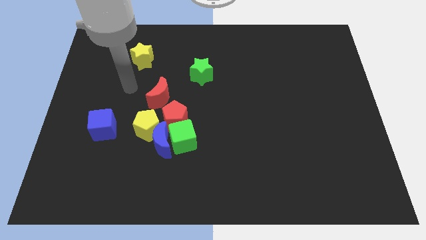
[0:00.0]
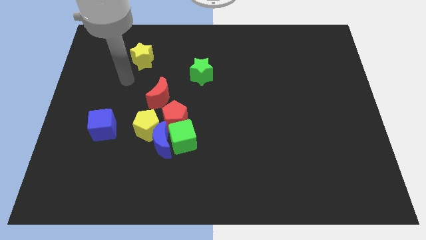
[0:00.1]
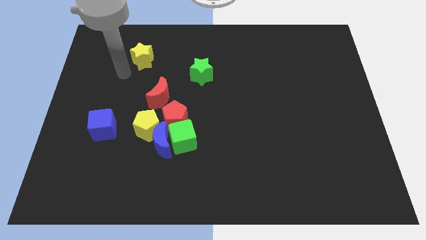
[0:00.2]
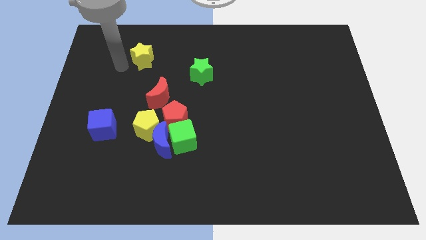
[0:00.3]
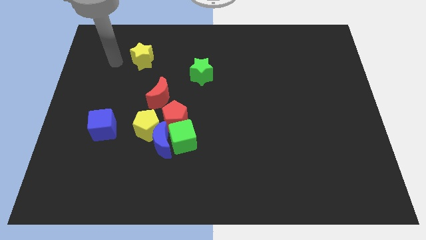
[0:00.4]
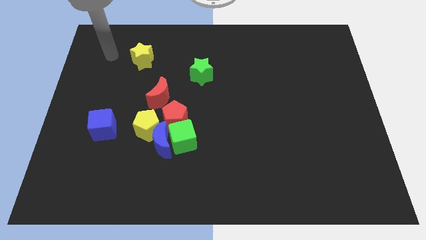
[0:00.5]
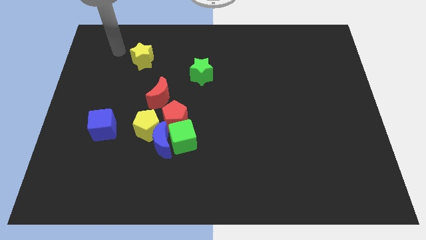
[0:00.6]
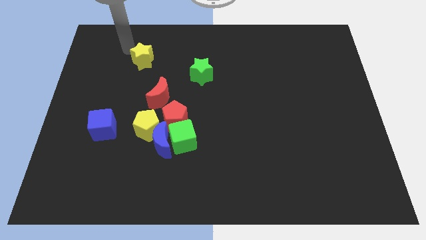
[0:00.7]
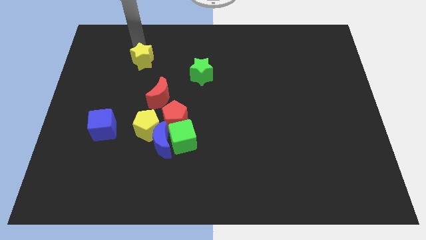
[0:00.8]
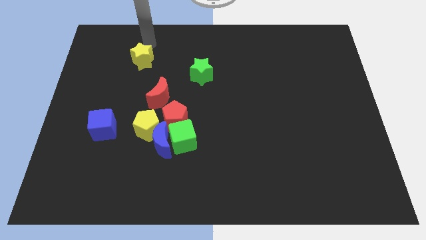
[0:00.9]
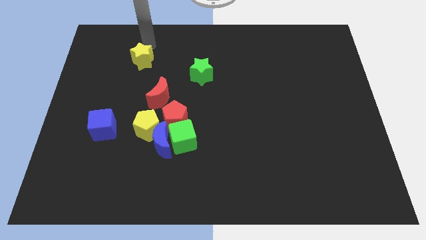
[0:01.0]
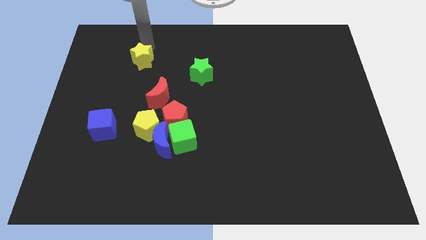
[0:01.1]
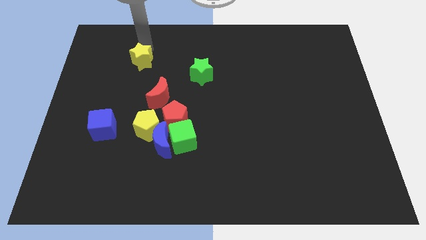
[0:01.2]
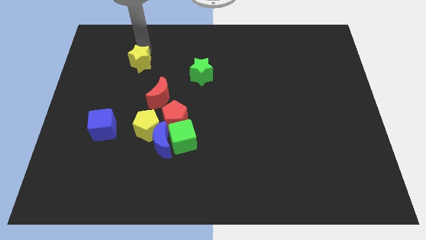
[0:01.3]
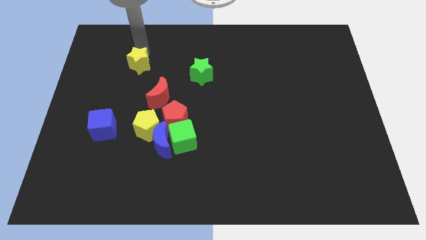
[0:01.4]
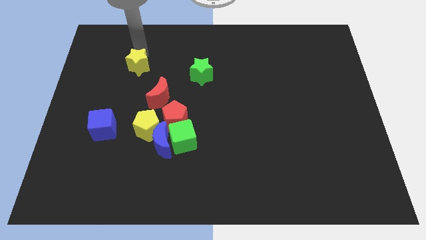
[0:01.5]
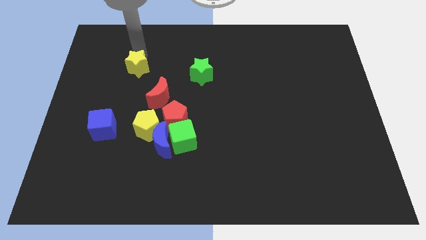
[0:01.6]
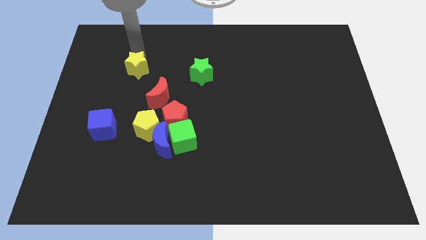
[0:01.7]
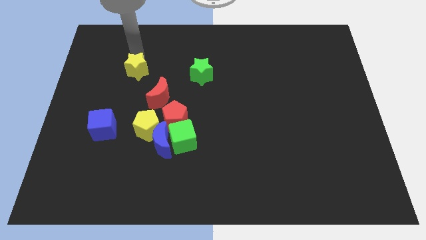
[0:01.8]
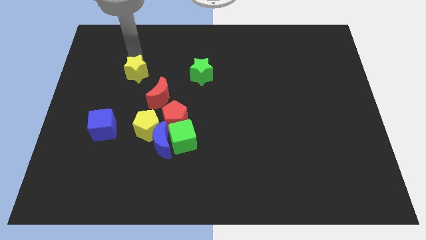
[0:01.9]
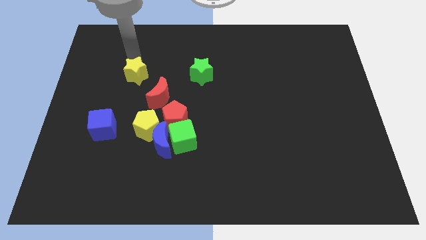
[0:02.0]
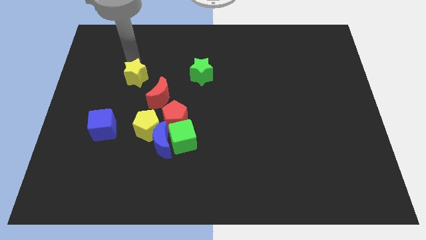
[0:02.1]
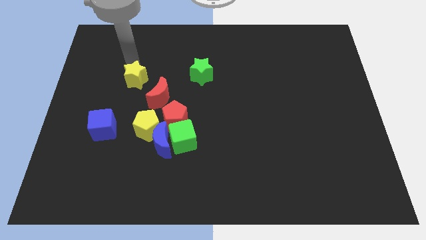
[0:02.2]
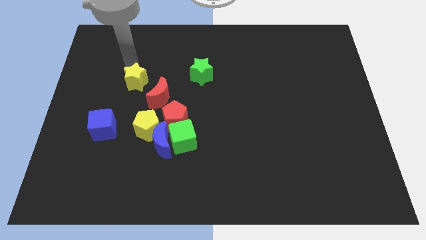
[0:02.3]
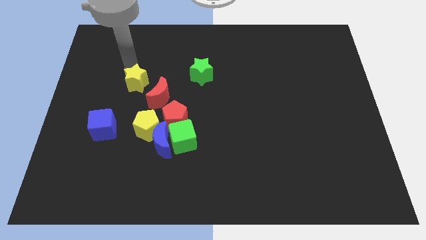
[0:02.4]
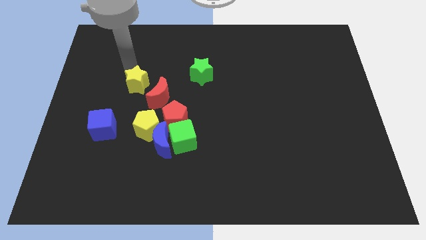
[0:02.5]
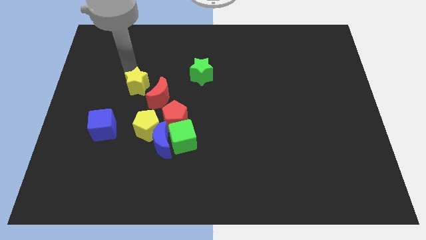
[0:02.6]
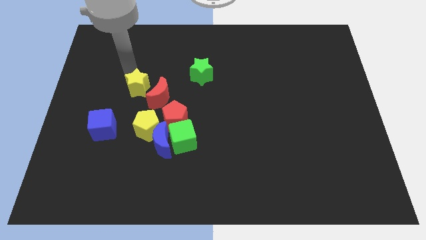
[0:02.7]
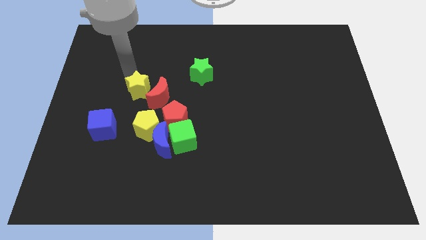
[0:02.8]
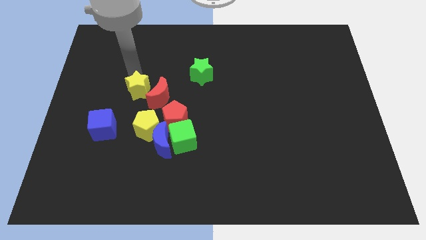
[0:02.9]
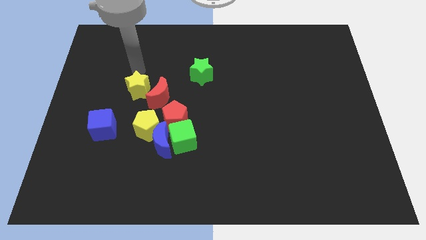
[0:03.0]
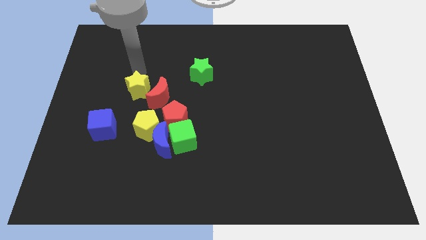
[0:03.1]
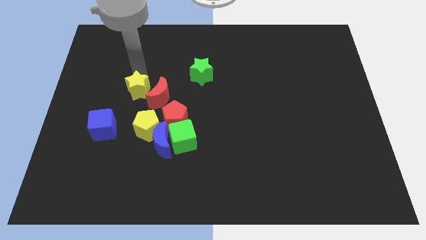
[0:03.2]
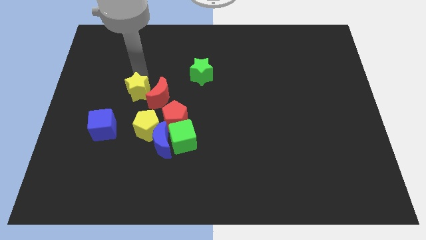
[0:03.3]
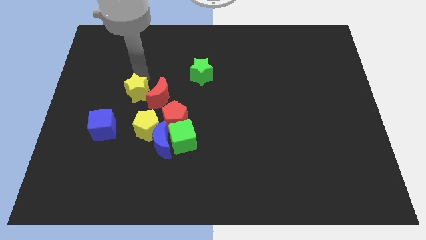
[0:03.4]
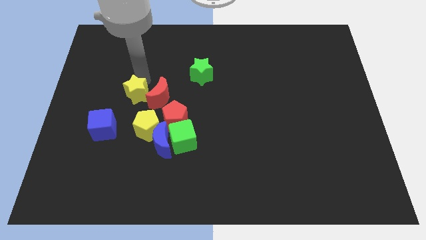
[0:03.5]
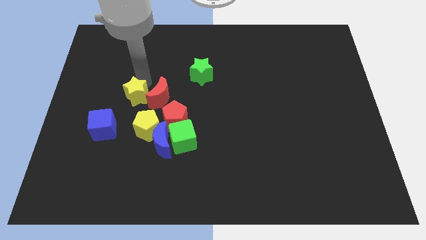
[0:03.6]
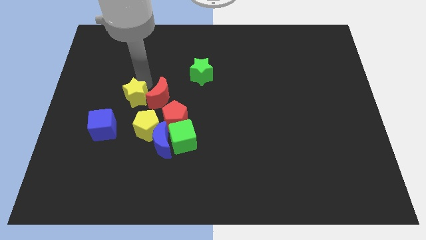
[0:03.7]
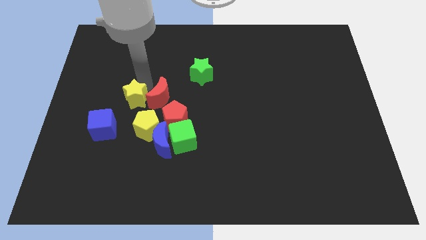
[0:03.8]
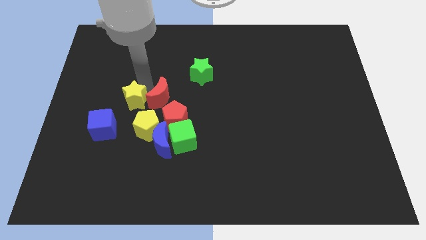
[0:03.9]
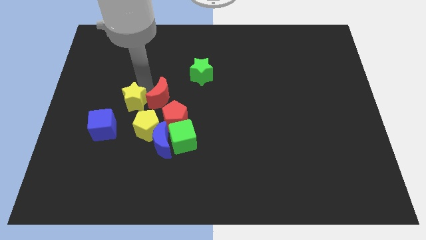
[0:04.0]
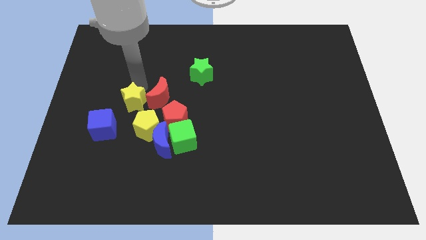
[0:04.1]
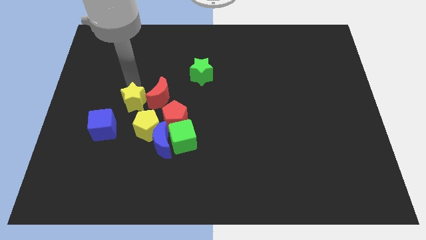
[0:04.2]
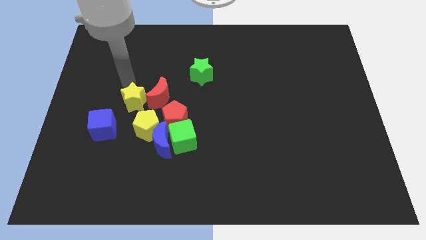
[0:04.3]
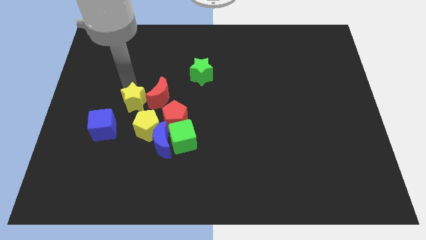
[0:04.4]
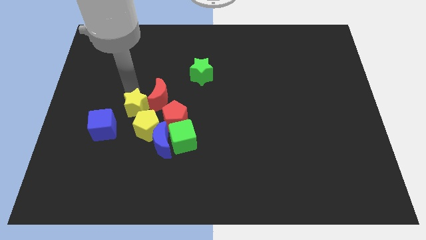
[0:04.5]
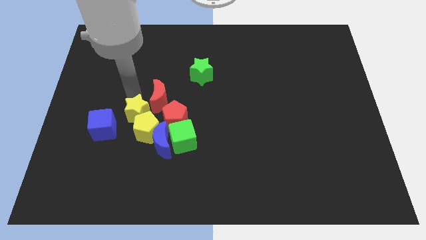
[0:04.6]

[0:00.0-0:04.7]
put the yellow star to the yellow pentagon

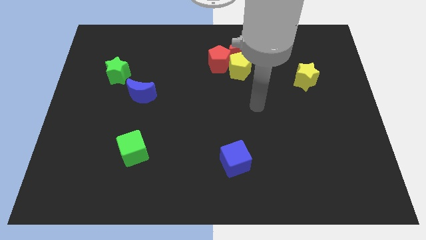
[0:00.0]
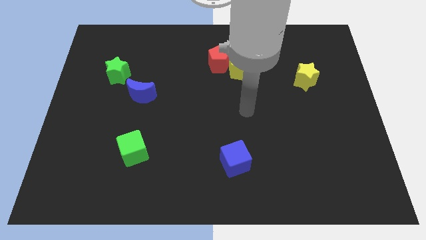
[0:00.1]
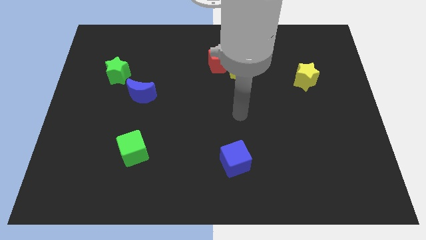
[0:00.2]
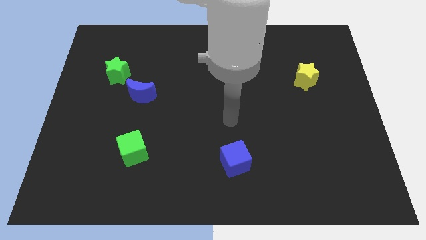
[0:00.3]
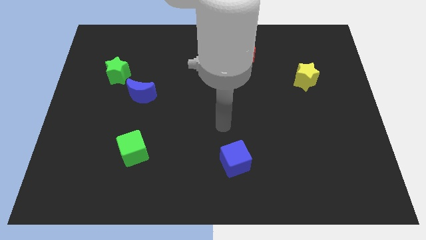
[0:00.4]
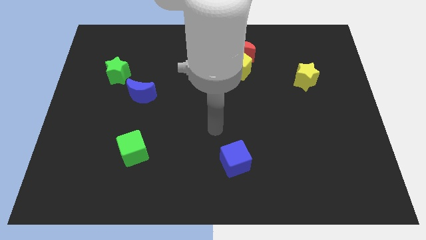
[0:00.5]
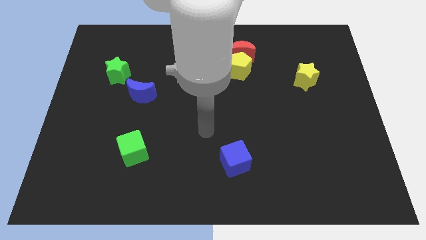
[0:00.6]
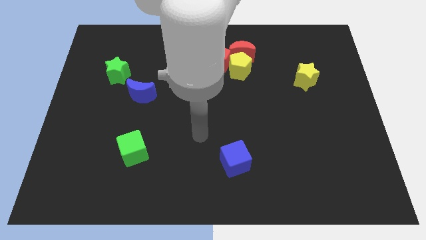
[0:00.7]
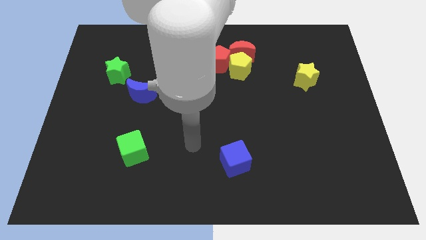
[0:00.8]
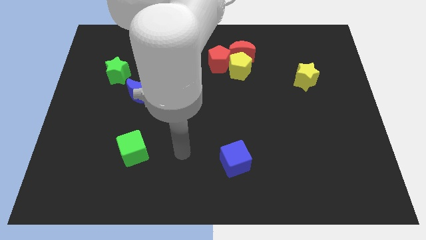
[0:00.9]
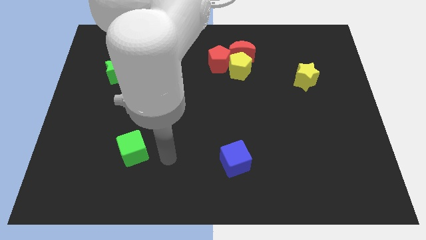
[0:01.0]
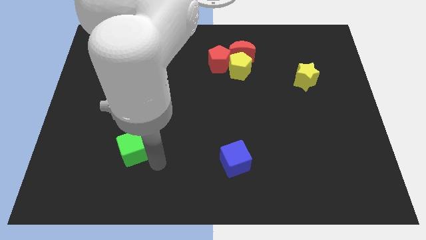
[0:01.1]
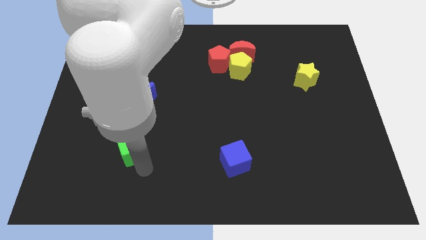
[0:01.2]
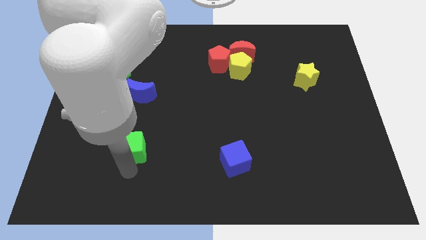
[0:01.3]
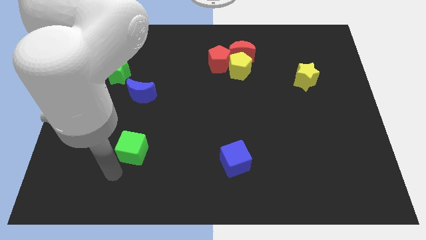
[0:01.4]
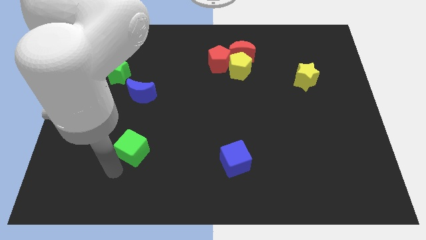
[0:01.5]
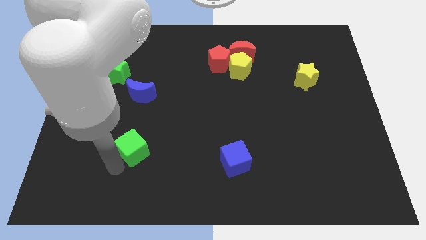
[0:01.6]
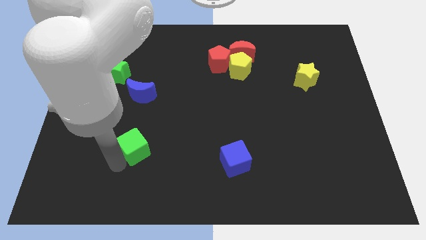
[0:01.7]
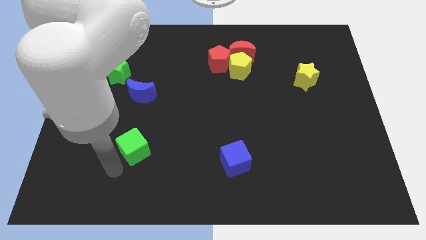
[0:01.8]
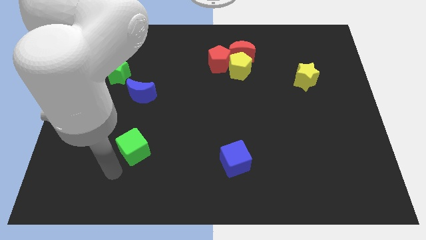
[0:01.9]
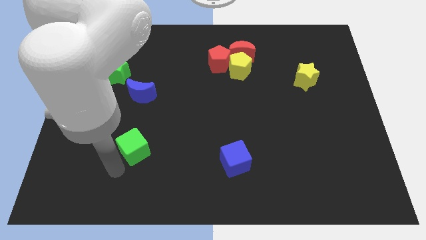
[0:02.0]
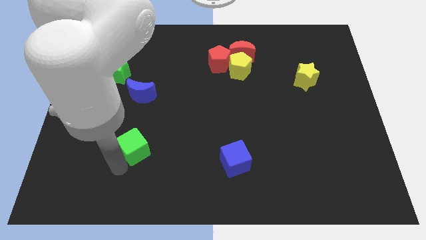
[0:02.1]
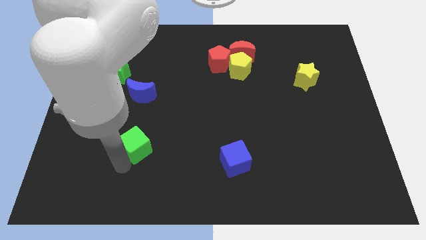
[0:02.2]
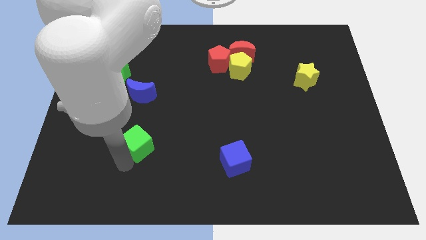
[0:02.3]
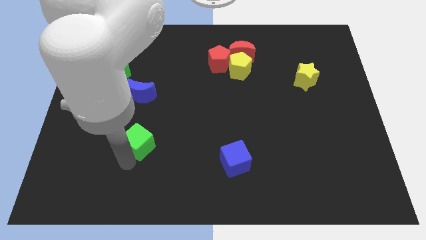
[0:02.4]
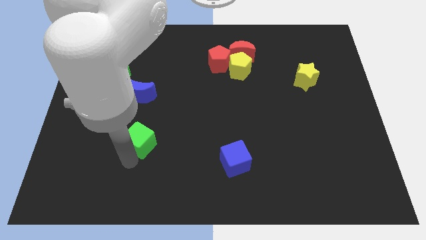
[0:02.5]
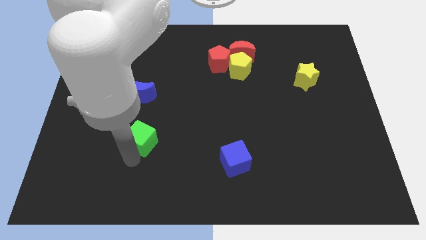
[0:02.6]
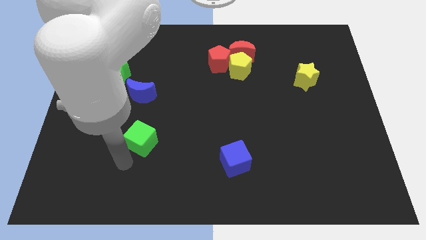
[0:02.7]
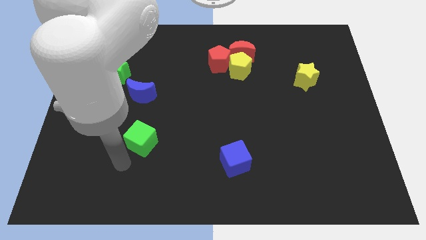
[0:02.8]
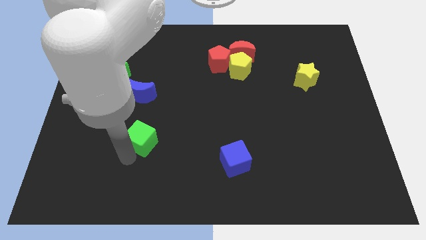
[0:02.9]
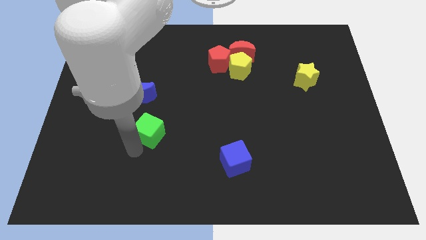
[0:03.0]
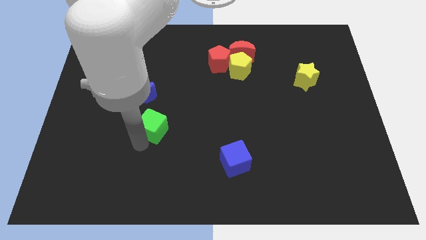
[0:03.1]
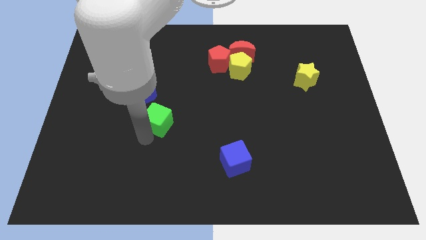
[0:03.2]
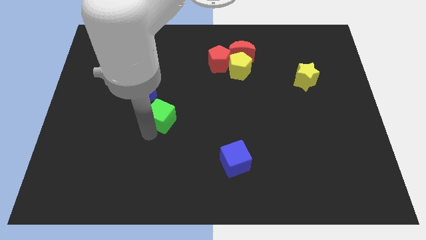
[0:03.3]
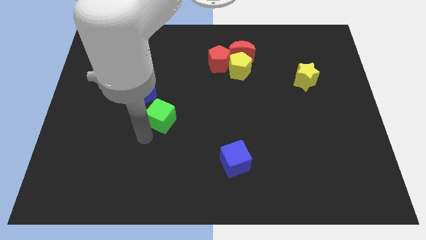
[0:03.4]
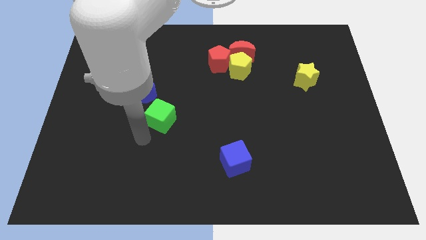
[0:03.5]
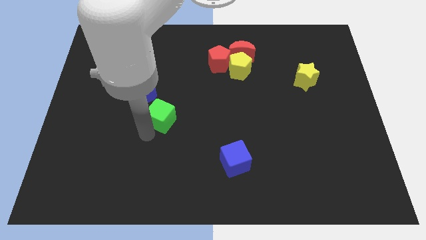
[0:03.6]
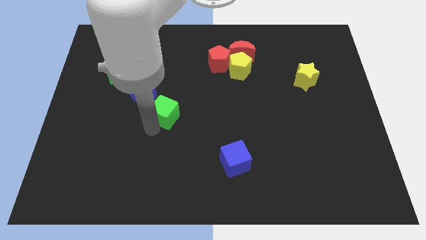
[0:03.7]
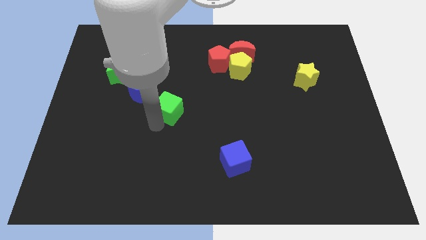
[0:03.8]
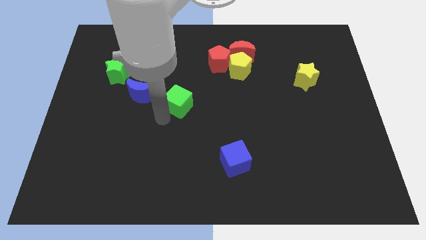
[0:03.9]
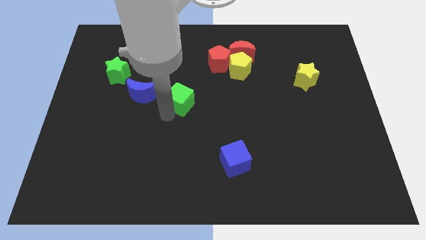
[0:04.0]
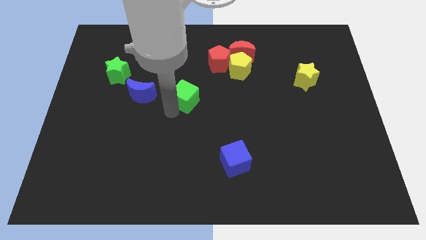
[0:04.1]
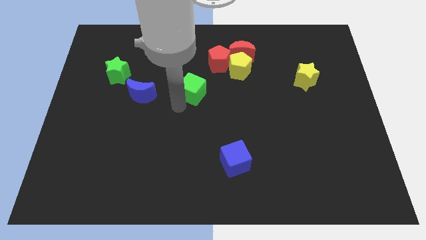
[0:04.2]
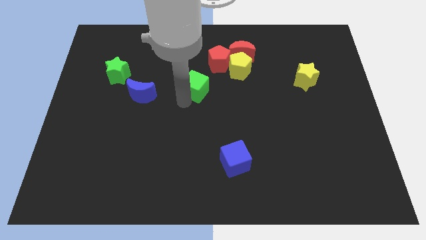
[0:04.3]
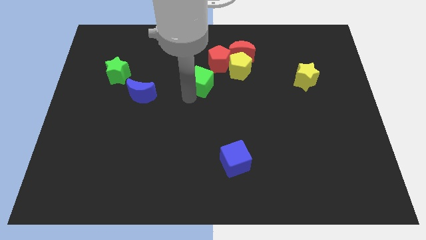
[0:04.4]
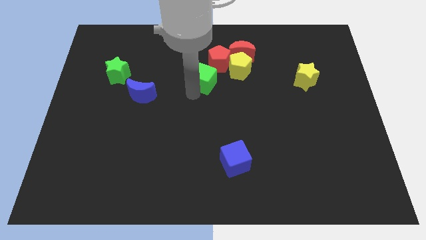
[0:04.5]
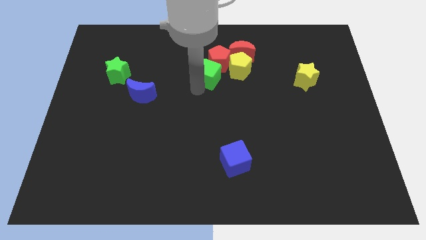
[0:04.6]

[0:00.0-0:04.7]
put the green cube next to the red pentagon
